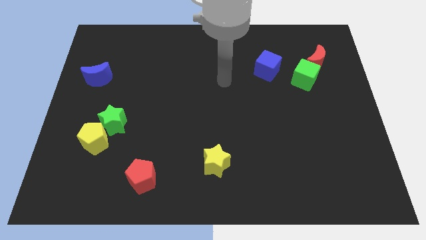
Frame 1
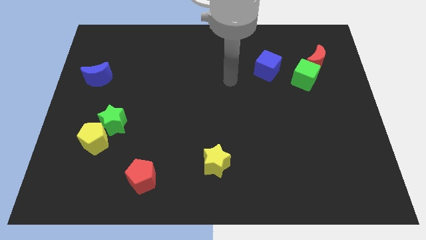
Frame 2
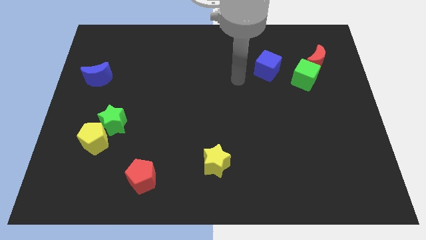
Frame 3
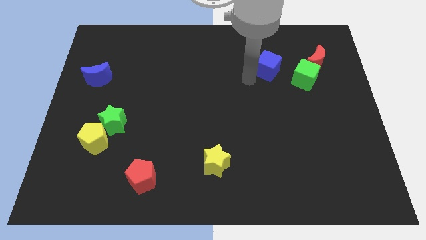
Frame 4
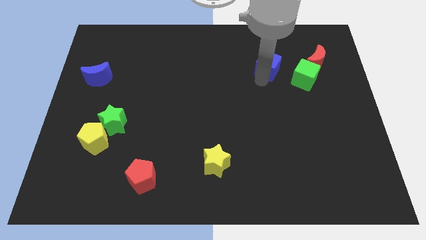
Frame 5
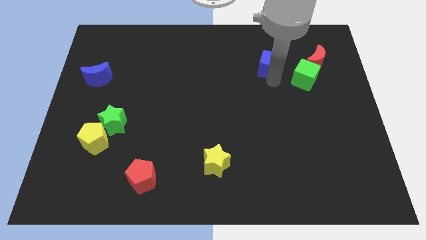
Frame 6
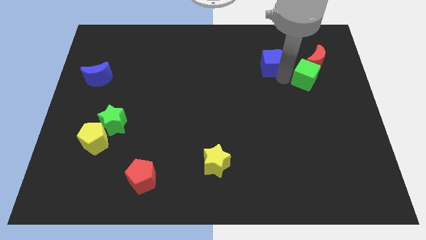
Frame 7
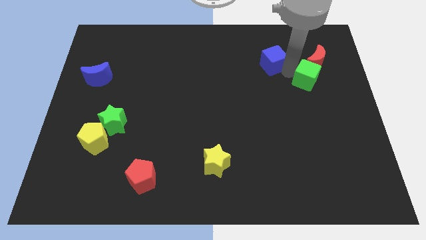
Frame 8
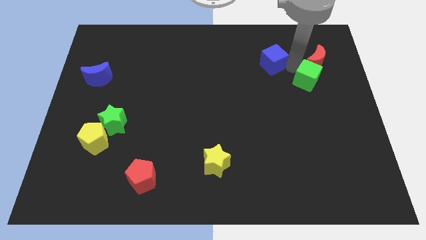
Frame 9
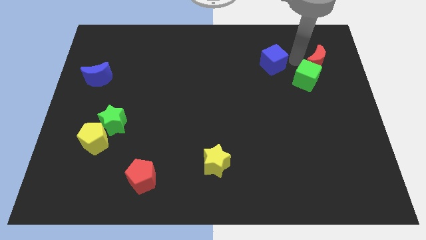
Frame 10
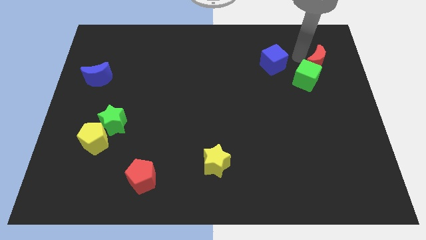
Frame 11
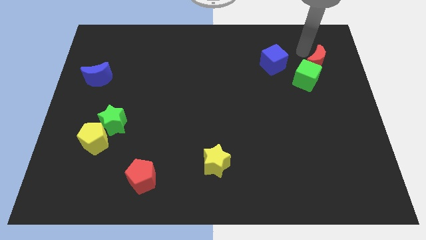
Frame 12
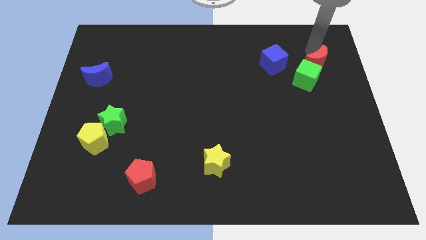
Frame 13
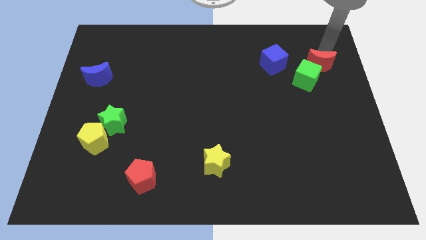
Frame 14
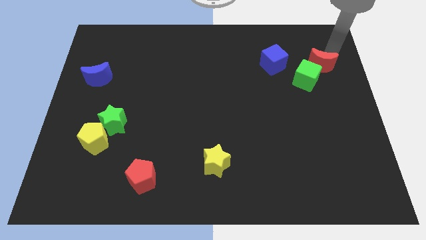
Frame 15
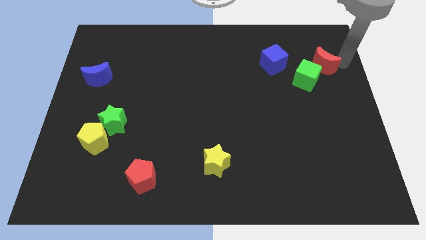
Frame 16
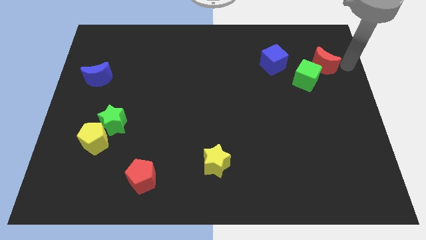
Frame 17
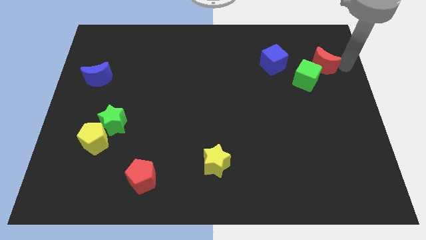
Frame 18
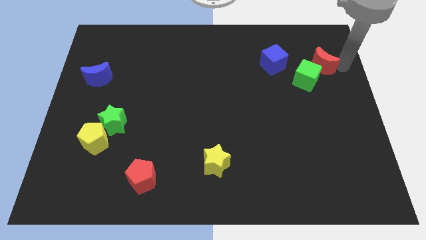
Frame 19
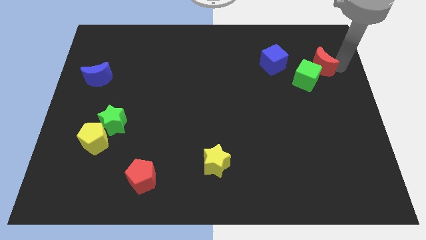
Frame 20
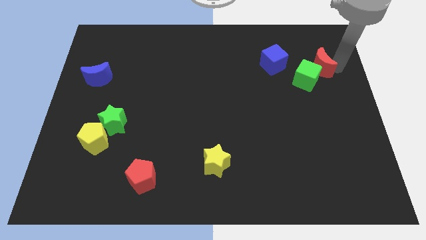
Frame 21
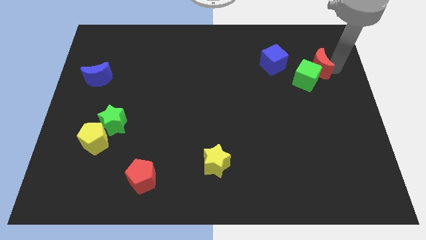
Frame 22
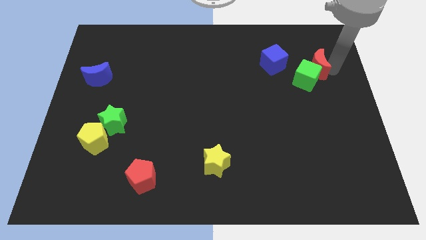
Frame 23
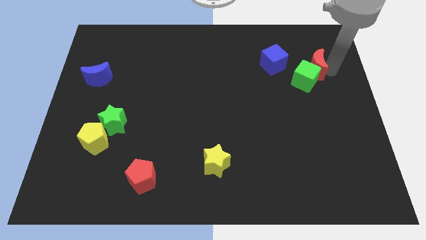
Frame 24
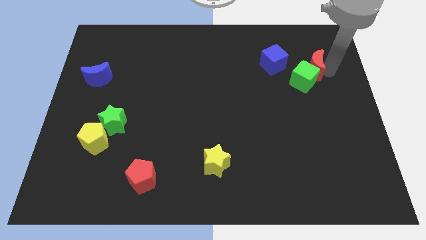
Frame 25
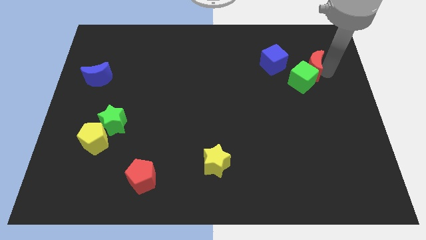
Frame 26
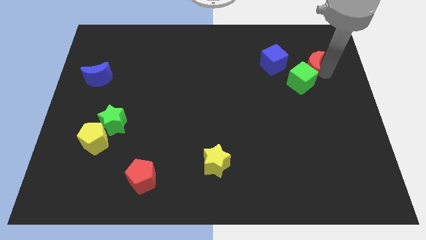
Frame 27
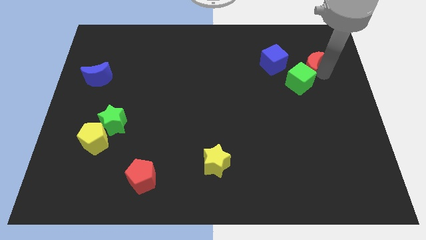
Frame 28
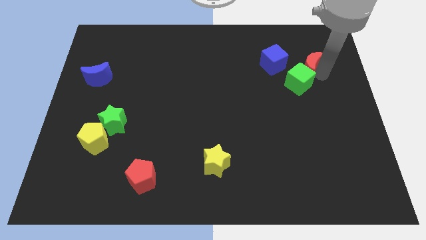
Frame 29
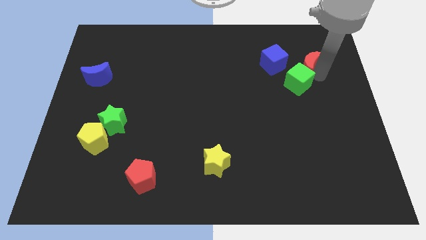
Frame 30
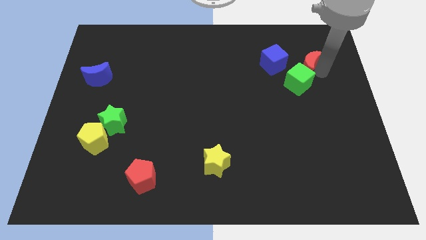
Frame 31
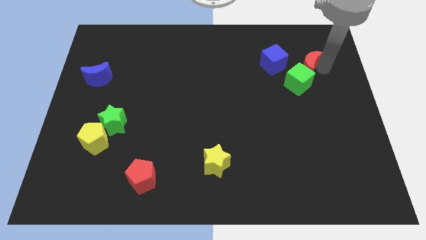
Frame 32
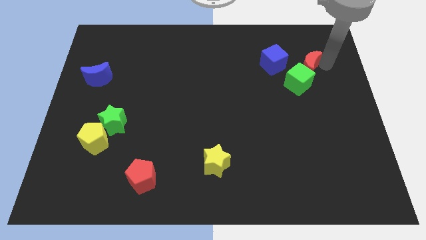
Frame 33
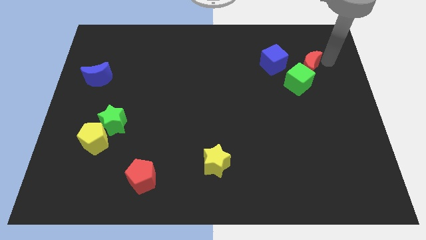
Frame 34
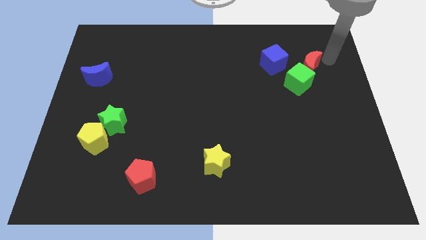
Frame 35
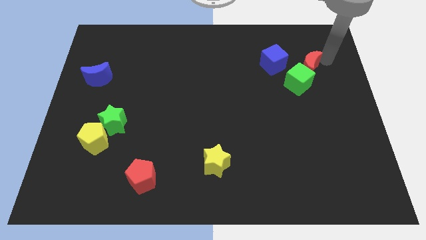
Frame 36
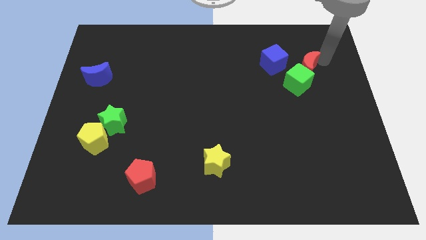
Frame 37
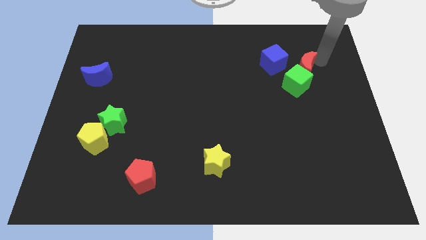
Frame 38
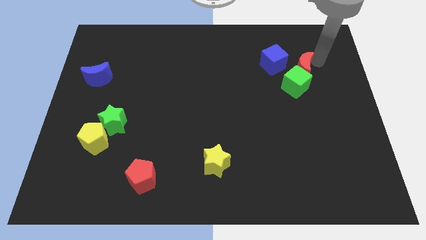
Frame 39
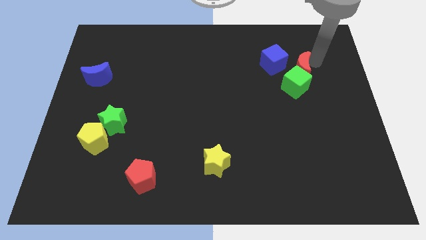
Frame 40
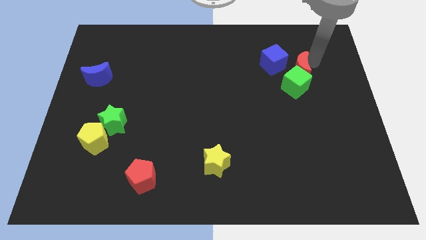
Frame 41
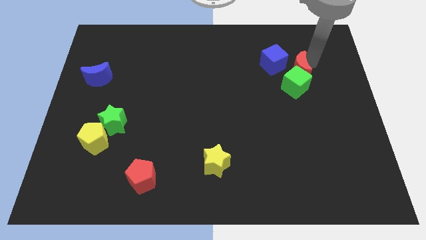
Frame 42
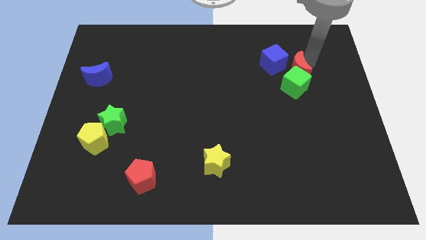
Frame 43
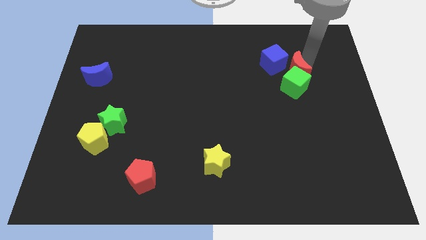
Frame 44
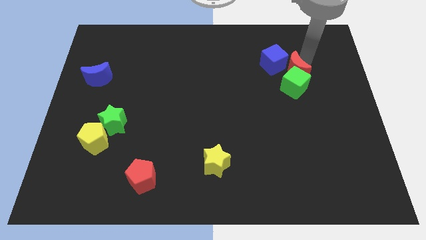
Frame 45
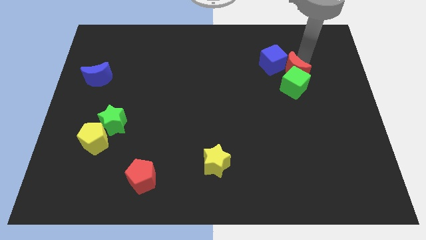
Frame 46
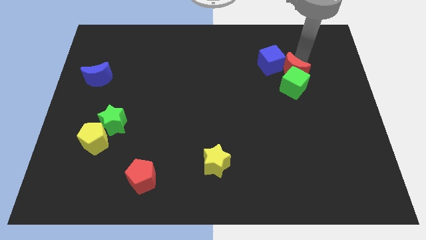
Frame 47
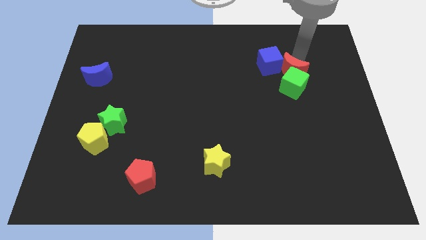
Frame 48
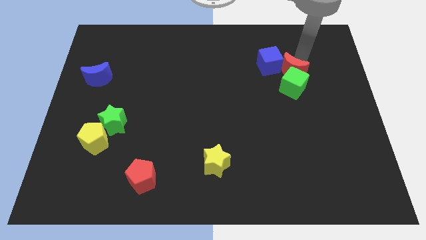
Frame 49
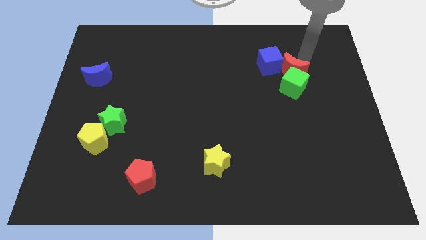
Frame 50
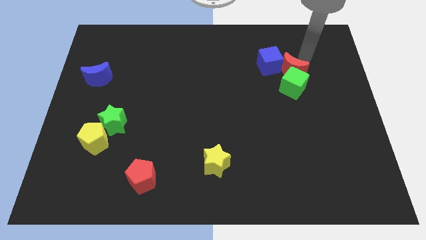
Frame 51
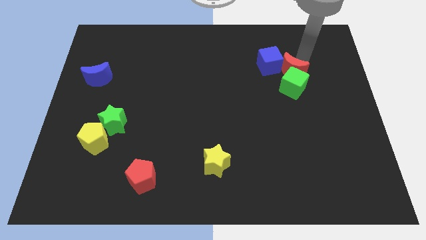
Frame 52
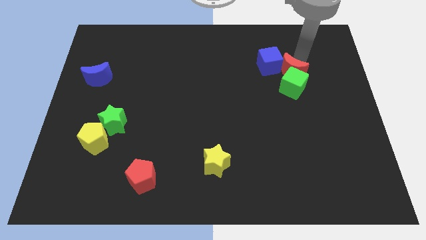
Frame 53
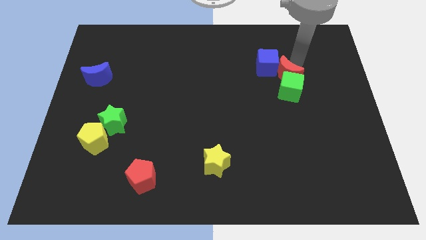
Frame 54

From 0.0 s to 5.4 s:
push the red moon a bit down and left

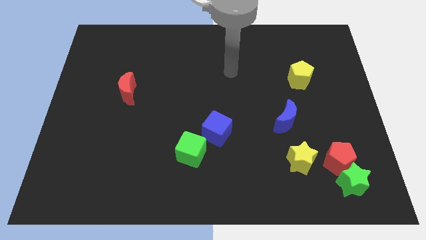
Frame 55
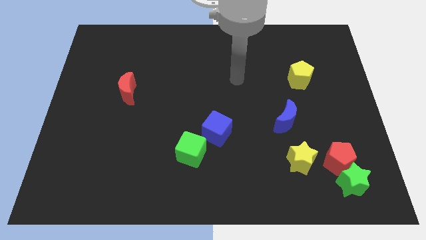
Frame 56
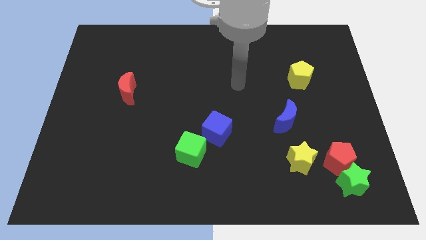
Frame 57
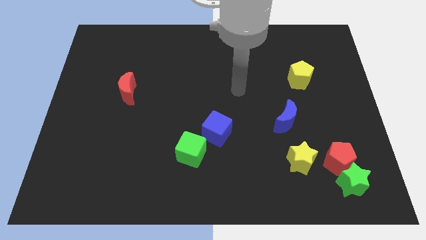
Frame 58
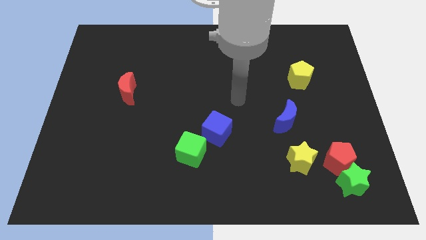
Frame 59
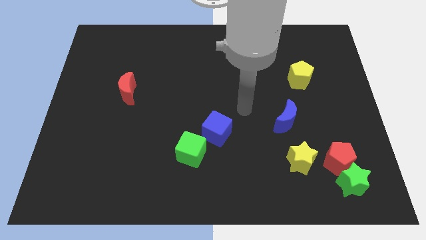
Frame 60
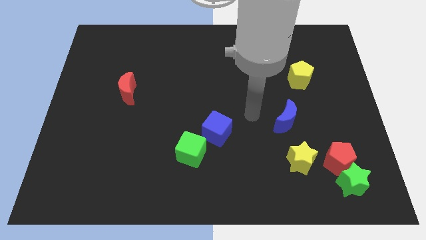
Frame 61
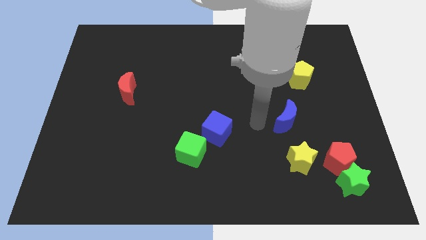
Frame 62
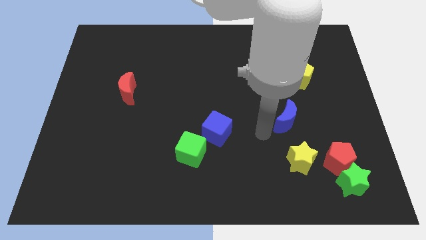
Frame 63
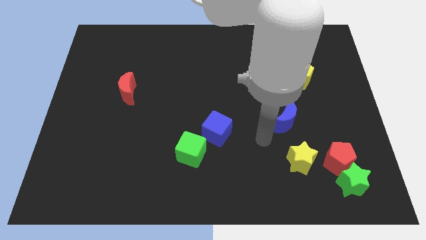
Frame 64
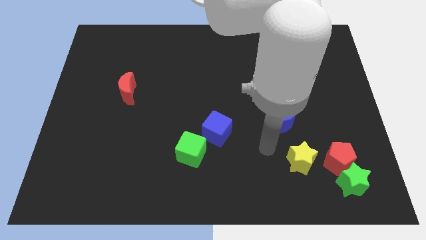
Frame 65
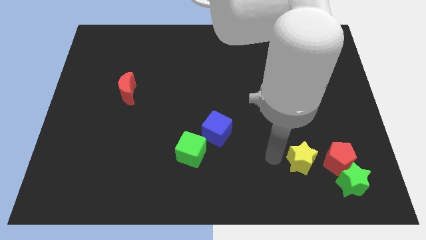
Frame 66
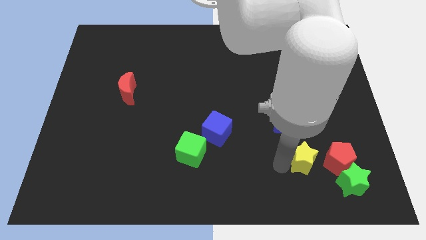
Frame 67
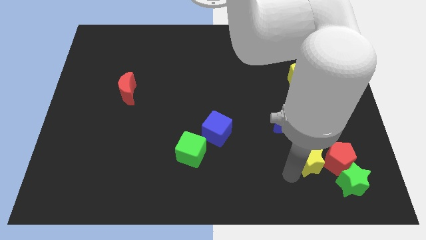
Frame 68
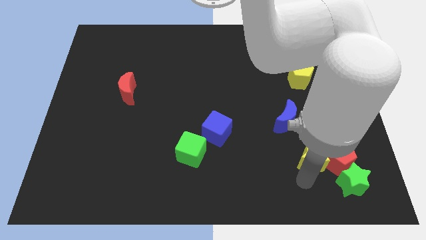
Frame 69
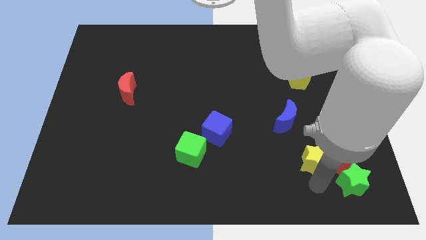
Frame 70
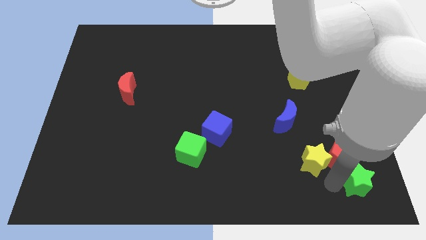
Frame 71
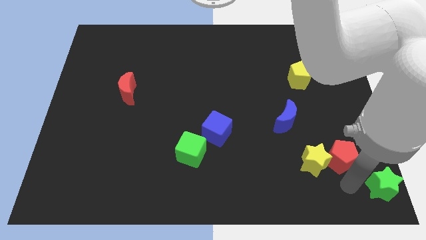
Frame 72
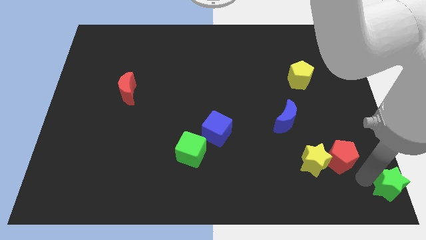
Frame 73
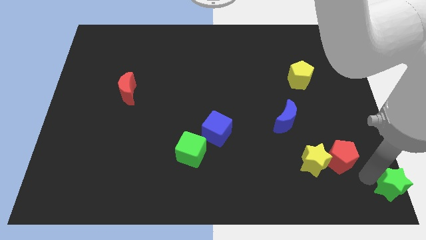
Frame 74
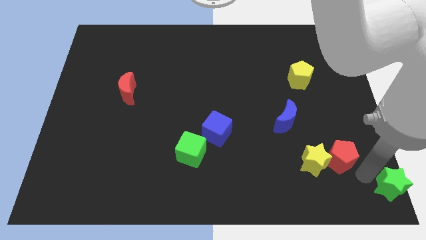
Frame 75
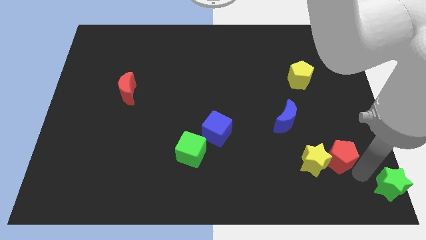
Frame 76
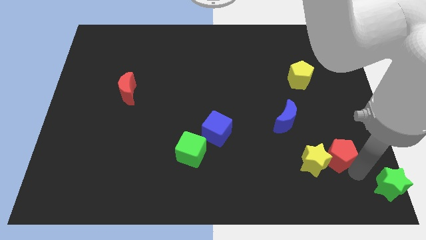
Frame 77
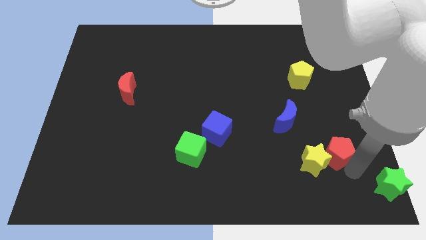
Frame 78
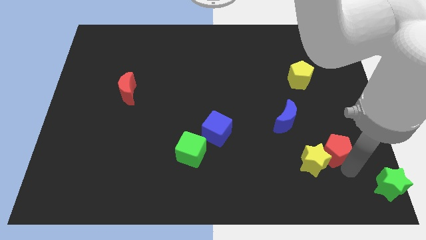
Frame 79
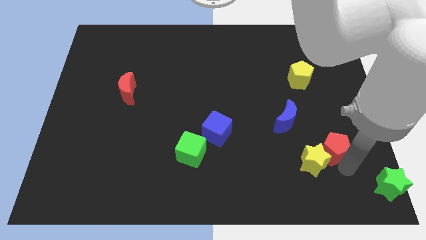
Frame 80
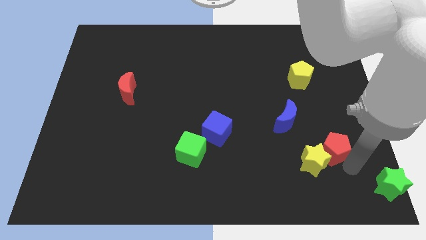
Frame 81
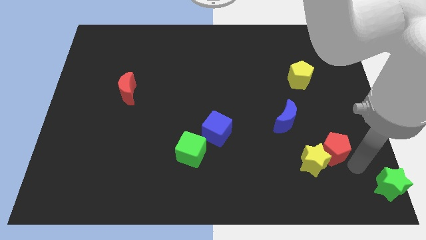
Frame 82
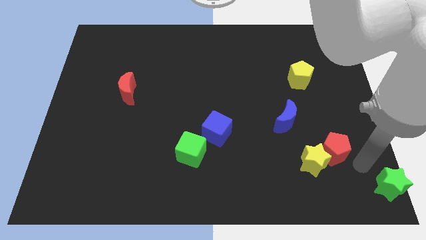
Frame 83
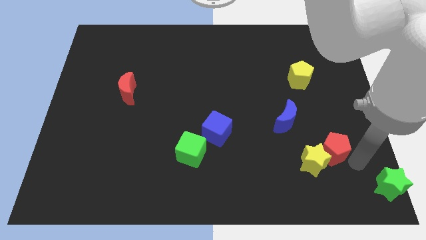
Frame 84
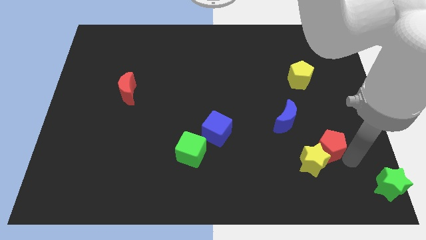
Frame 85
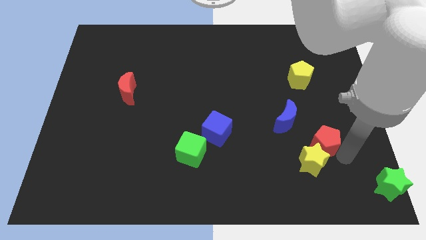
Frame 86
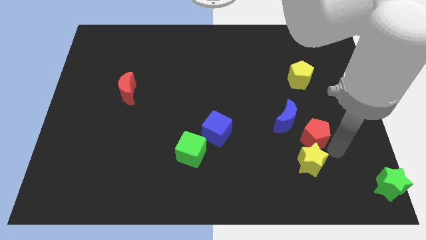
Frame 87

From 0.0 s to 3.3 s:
slightly push the red pentagon upwards and to the left
